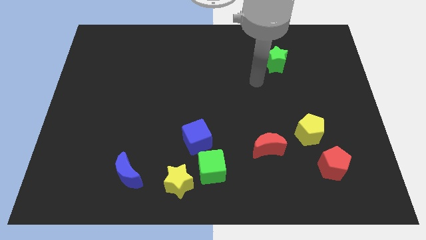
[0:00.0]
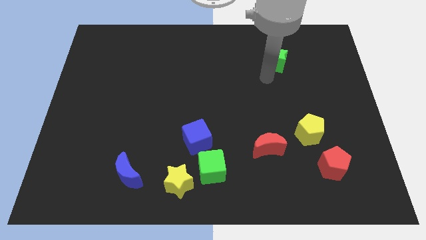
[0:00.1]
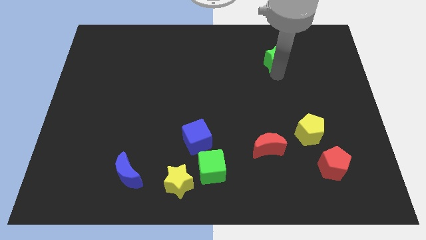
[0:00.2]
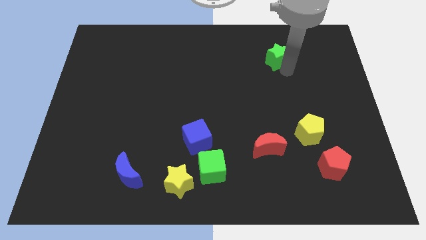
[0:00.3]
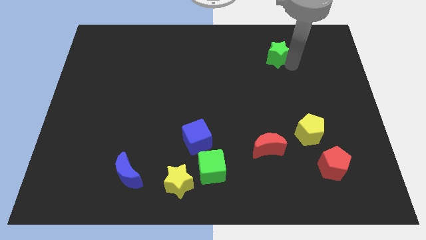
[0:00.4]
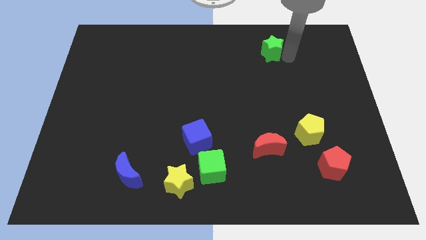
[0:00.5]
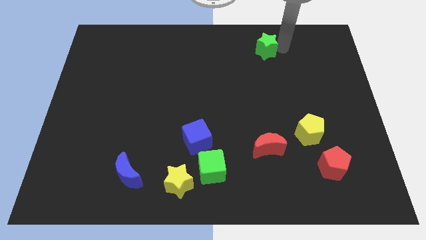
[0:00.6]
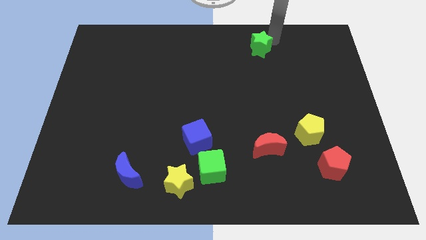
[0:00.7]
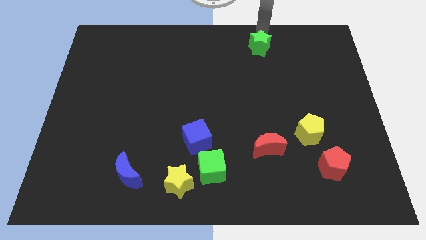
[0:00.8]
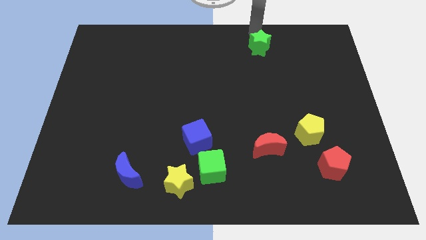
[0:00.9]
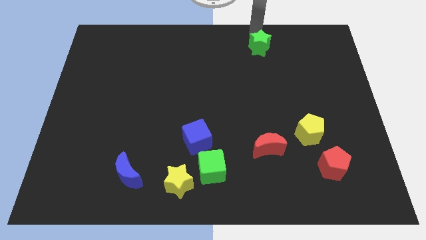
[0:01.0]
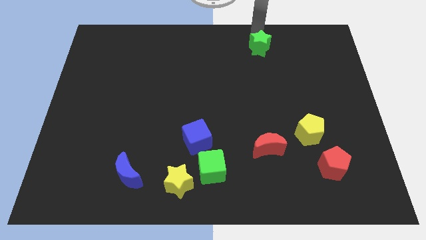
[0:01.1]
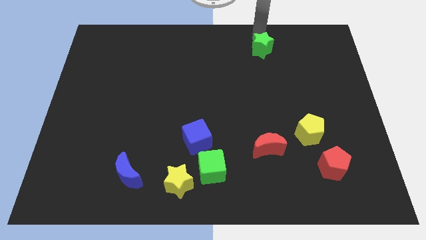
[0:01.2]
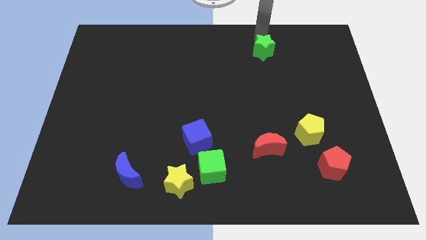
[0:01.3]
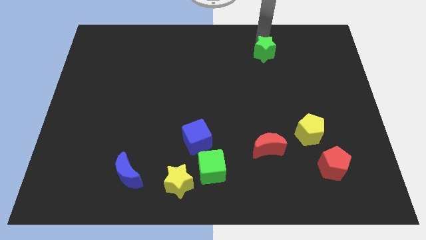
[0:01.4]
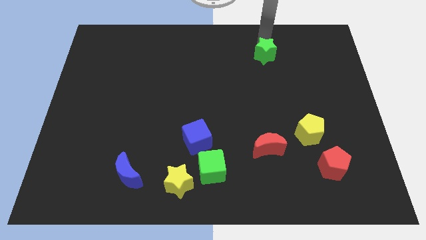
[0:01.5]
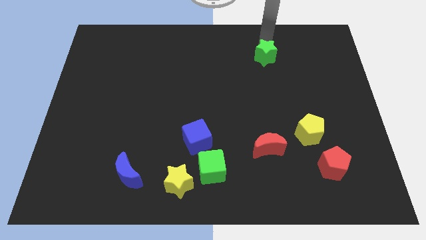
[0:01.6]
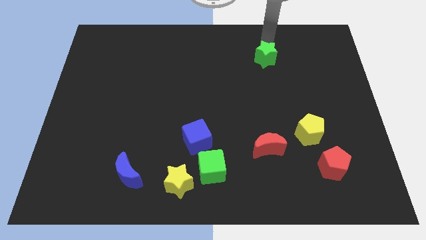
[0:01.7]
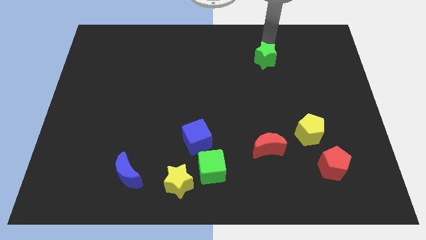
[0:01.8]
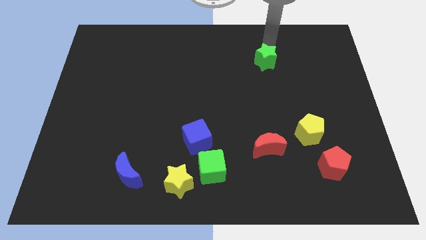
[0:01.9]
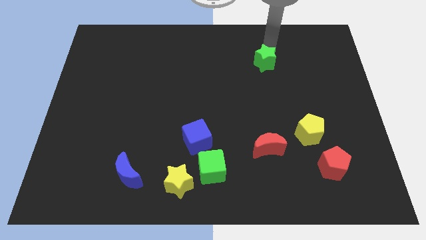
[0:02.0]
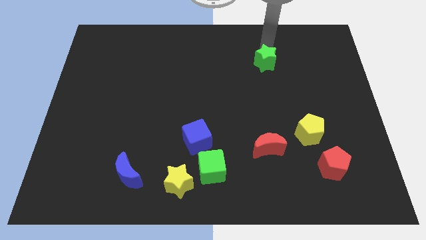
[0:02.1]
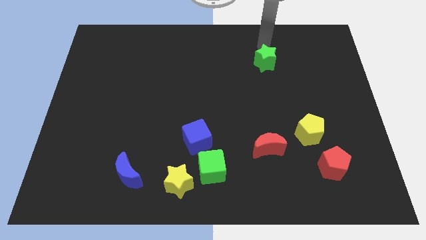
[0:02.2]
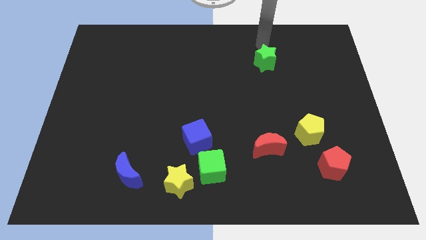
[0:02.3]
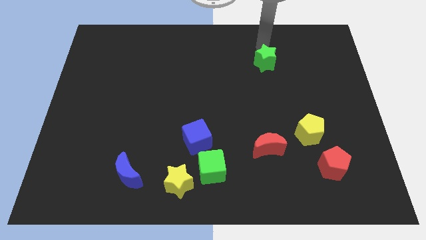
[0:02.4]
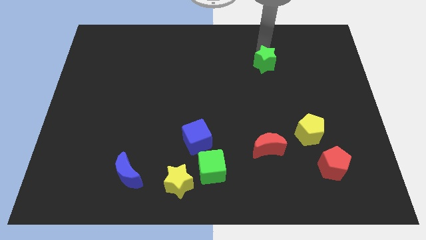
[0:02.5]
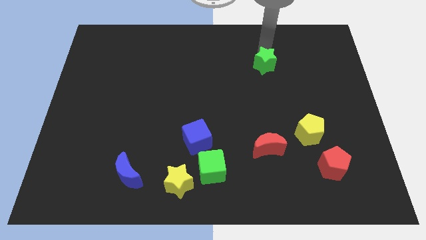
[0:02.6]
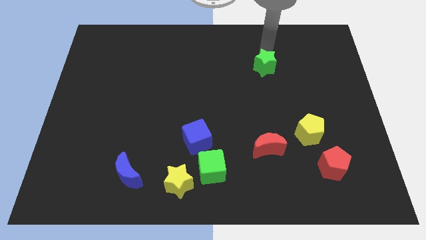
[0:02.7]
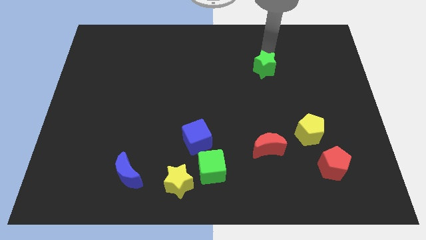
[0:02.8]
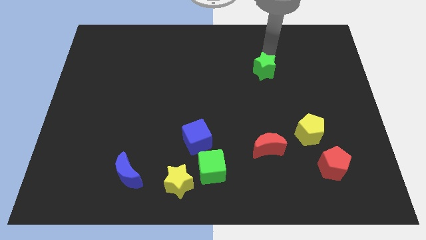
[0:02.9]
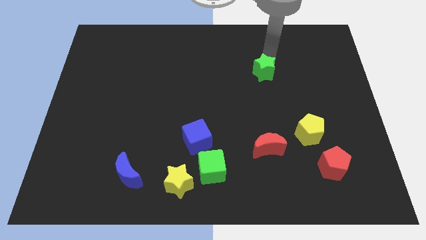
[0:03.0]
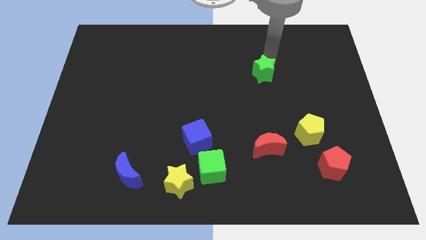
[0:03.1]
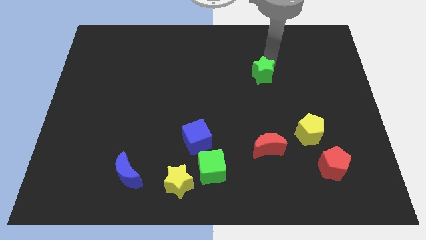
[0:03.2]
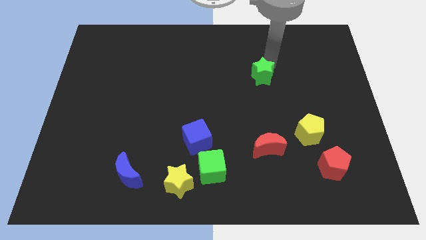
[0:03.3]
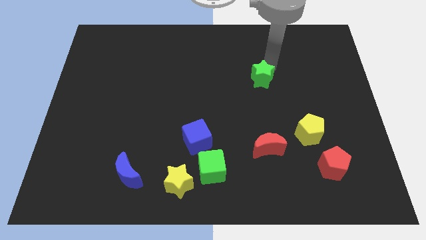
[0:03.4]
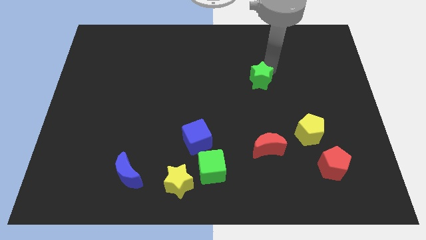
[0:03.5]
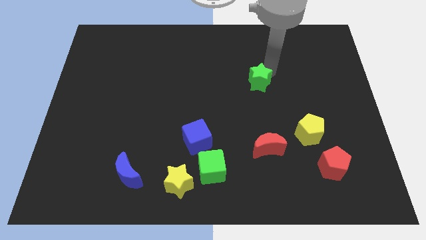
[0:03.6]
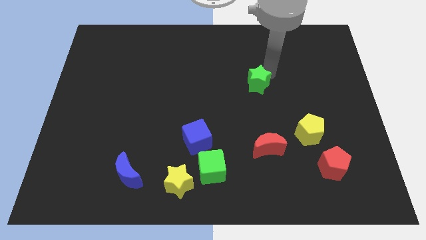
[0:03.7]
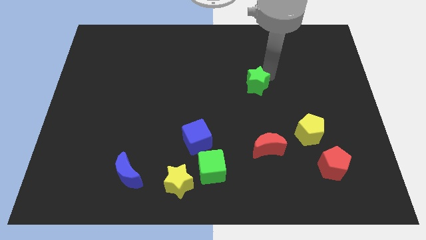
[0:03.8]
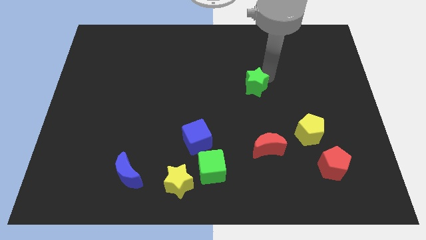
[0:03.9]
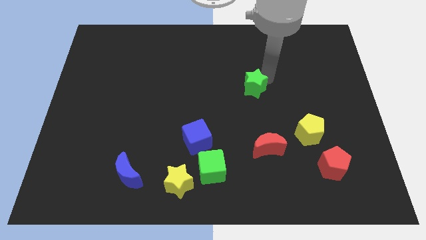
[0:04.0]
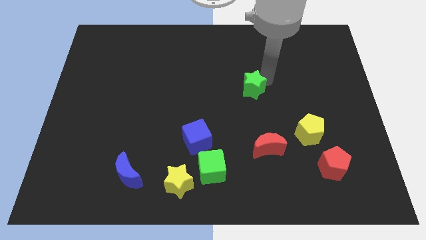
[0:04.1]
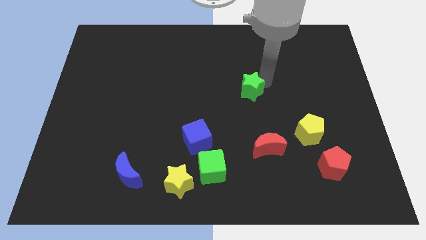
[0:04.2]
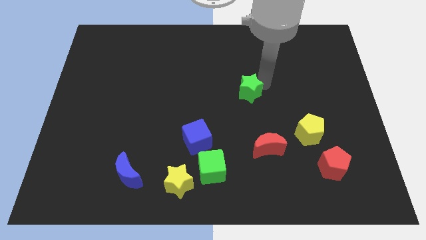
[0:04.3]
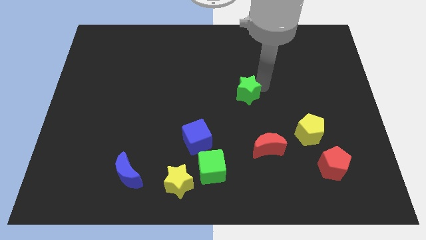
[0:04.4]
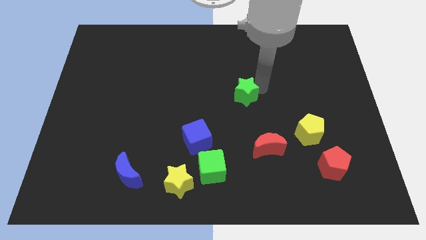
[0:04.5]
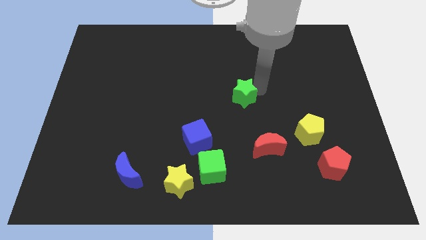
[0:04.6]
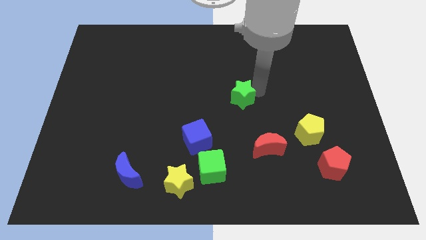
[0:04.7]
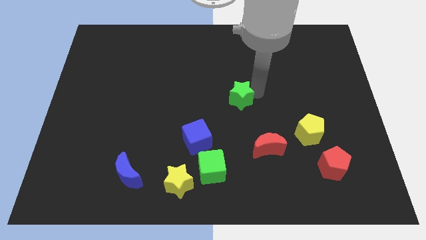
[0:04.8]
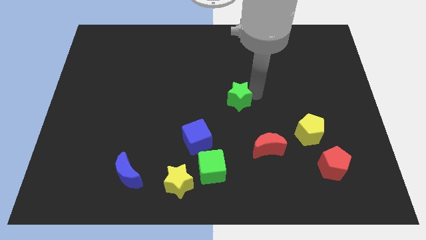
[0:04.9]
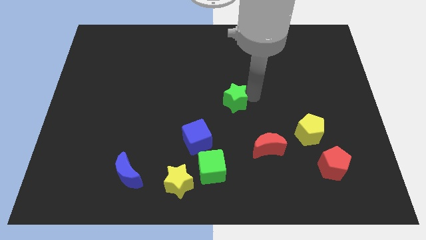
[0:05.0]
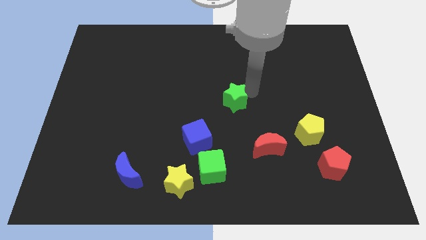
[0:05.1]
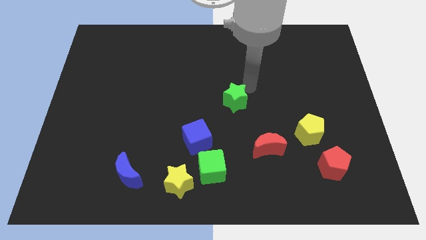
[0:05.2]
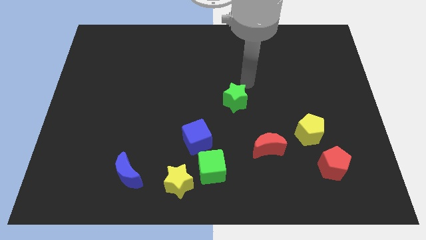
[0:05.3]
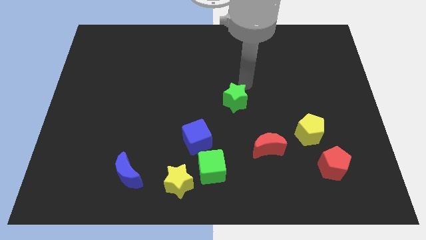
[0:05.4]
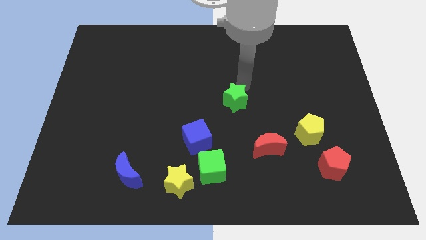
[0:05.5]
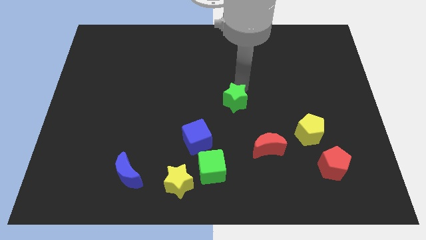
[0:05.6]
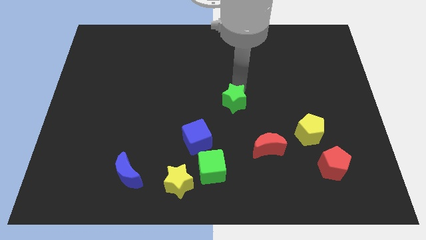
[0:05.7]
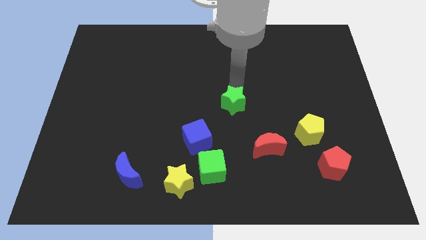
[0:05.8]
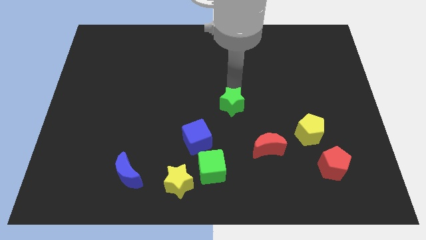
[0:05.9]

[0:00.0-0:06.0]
put the green star to the top right of the blue cube

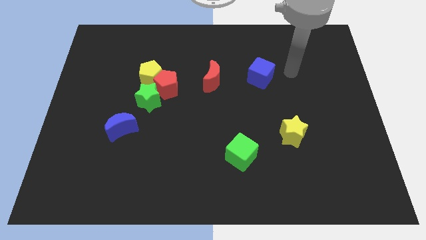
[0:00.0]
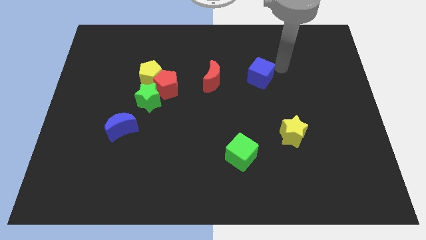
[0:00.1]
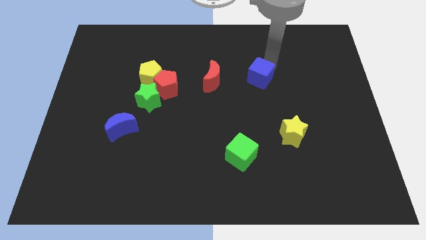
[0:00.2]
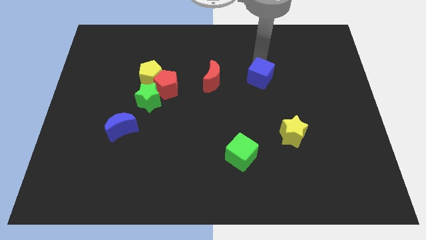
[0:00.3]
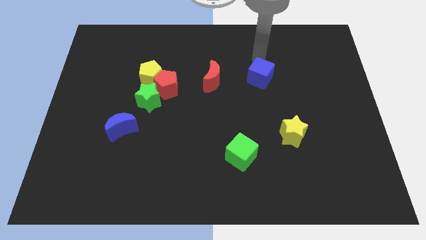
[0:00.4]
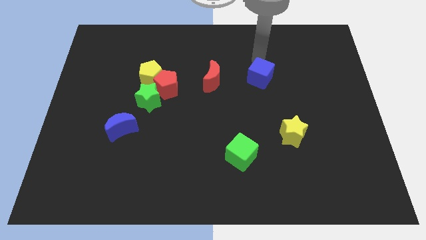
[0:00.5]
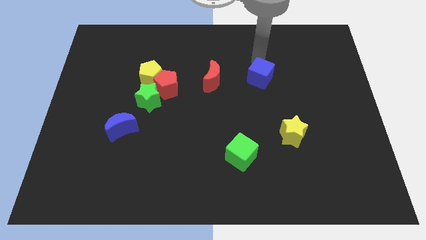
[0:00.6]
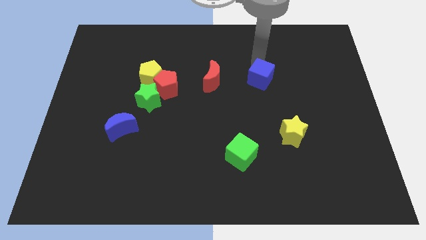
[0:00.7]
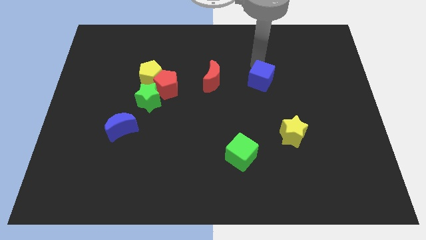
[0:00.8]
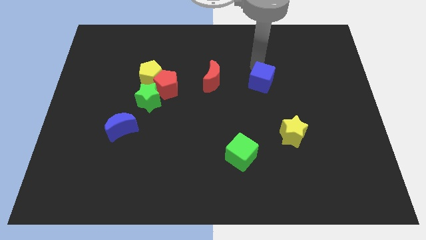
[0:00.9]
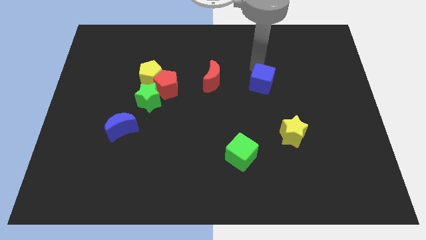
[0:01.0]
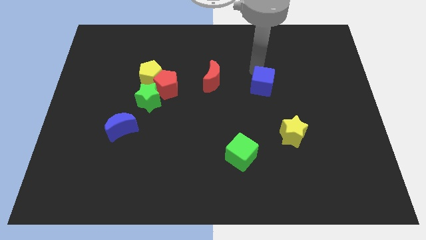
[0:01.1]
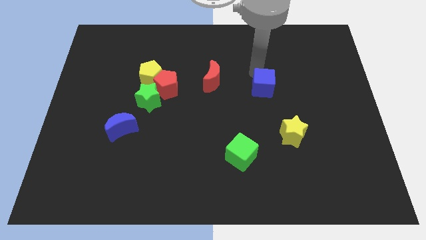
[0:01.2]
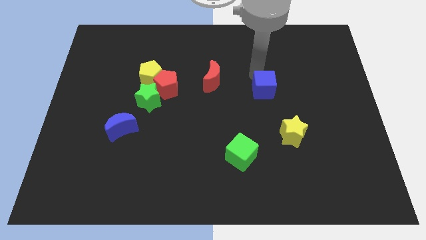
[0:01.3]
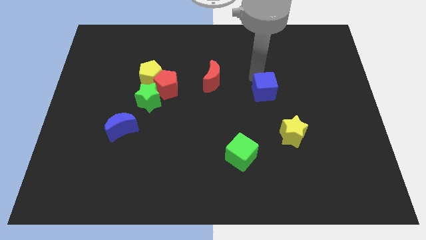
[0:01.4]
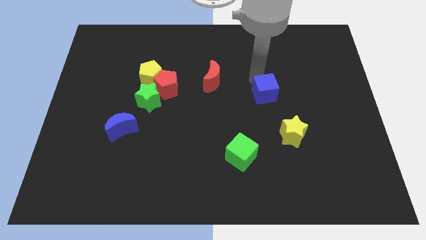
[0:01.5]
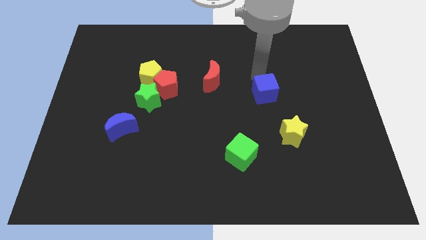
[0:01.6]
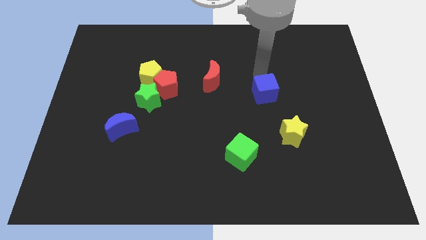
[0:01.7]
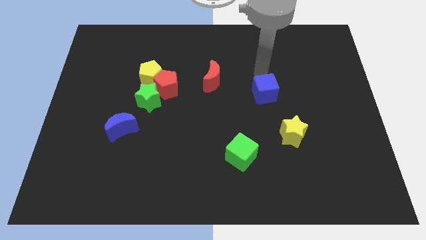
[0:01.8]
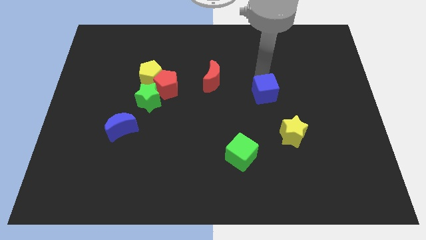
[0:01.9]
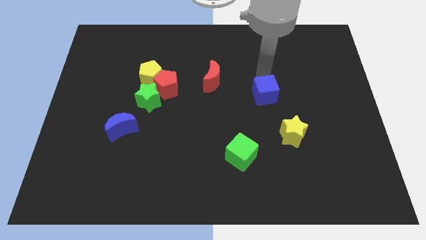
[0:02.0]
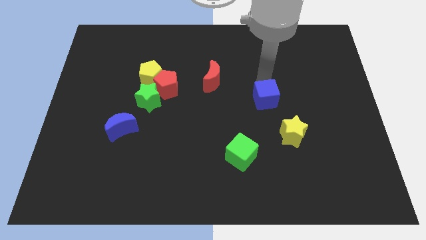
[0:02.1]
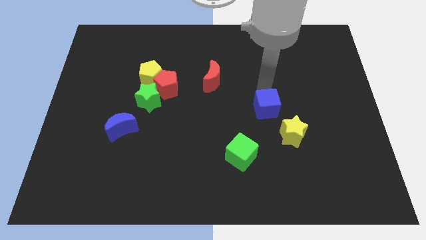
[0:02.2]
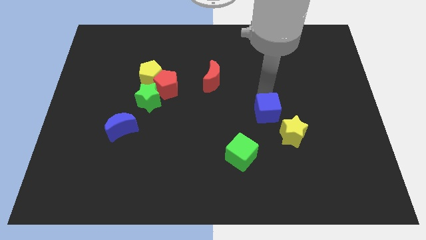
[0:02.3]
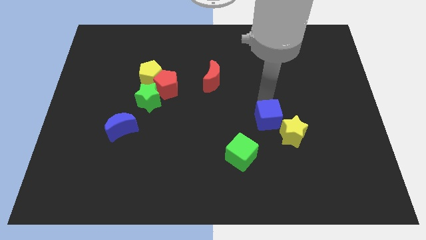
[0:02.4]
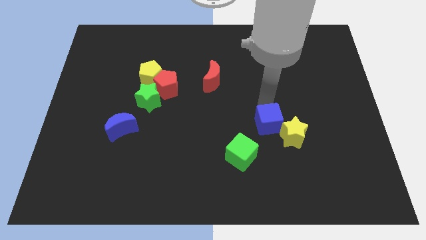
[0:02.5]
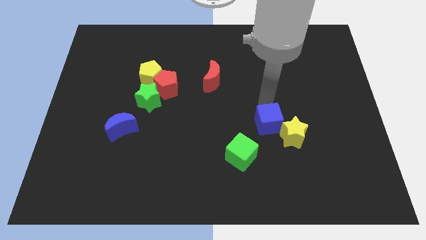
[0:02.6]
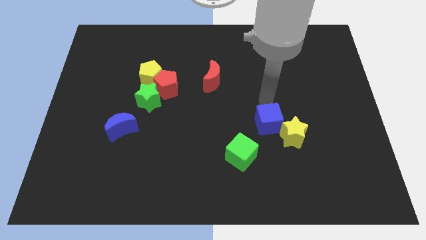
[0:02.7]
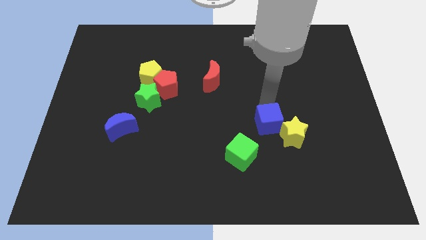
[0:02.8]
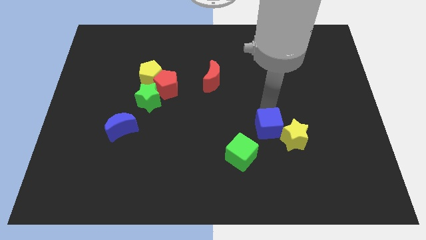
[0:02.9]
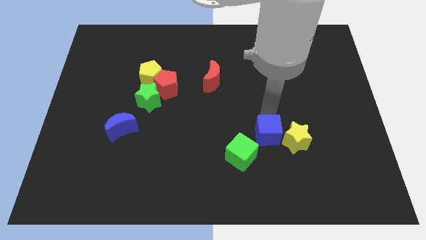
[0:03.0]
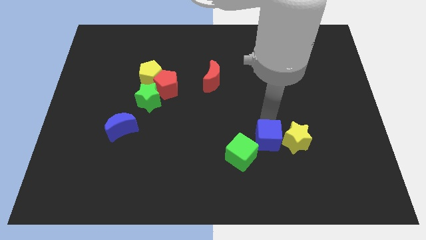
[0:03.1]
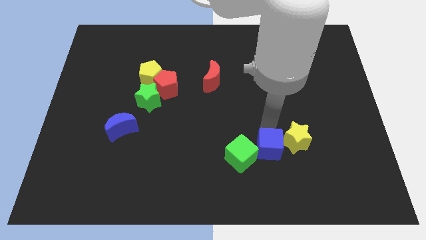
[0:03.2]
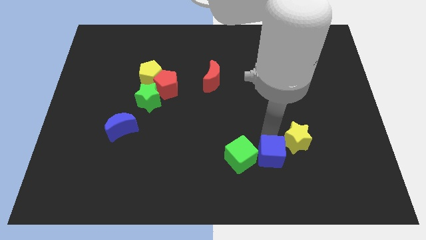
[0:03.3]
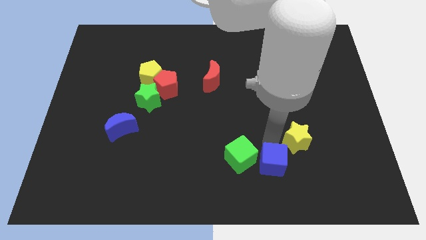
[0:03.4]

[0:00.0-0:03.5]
put the blue cube to the bottom right of the green cube
